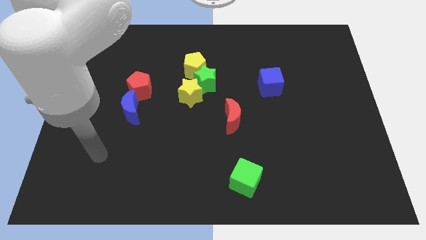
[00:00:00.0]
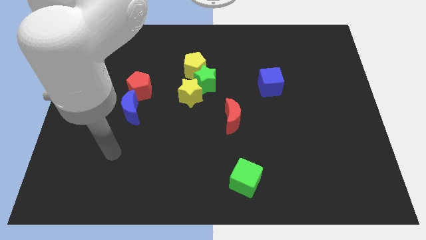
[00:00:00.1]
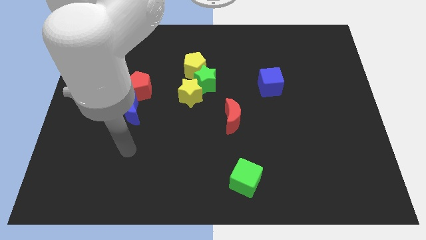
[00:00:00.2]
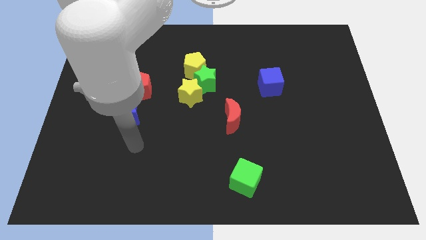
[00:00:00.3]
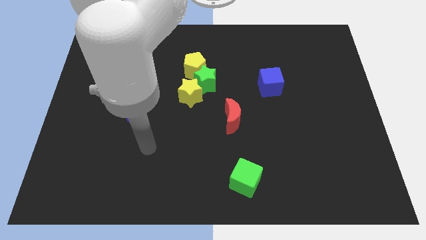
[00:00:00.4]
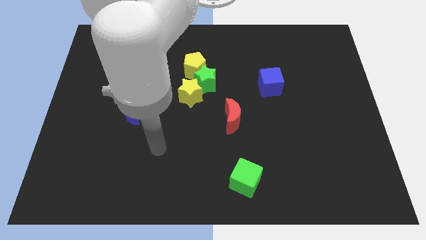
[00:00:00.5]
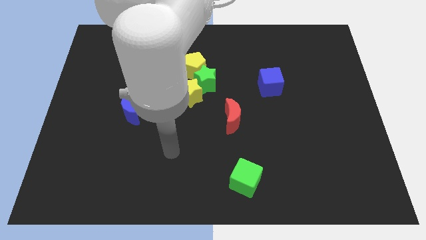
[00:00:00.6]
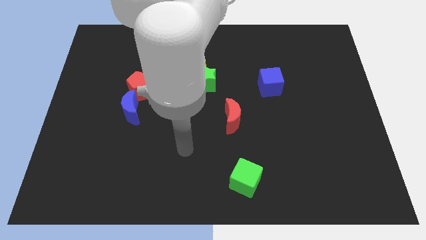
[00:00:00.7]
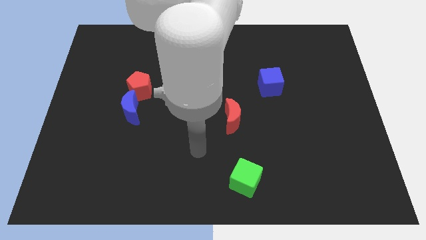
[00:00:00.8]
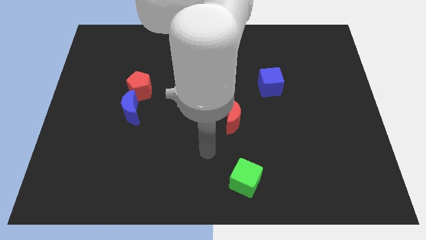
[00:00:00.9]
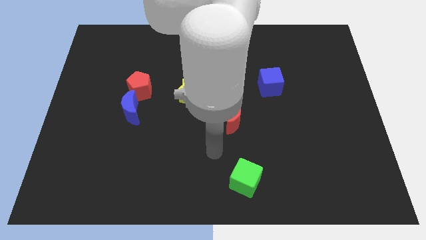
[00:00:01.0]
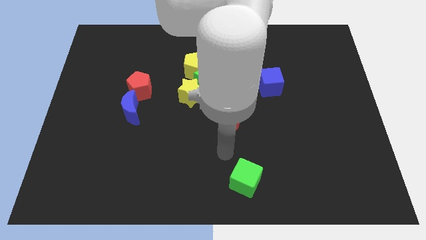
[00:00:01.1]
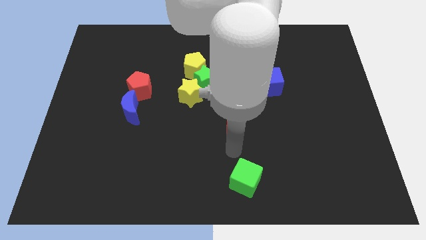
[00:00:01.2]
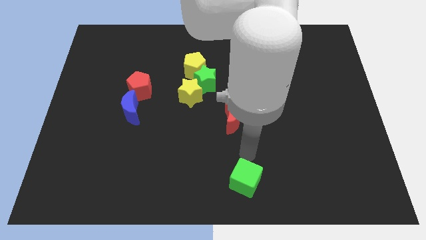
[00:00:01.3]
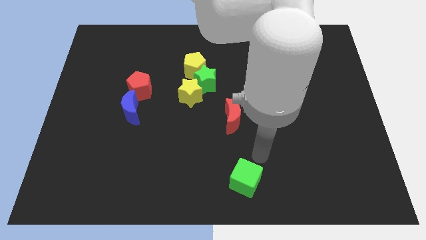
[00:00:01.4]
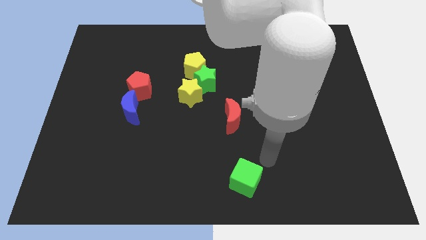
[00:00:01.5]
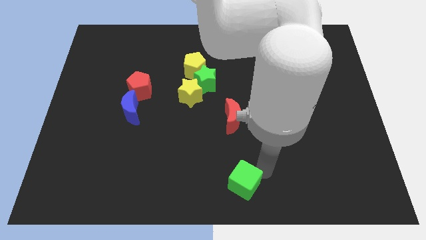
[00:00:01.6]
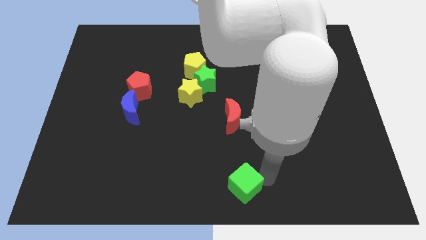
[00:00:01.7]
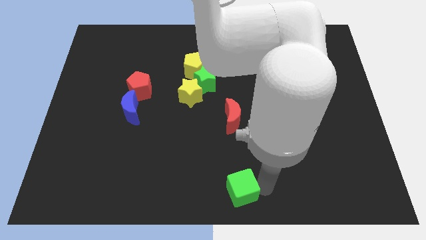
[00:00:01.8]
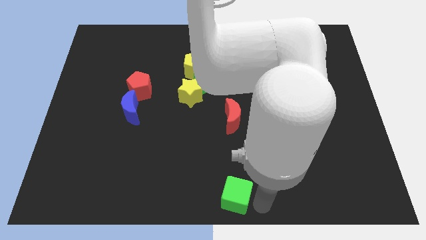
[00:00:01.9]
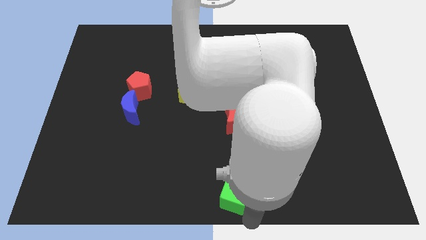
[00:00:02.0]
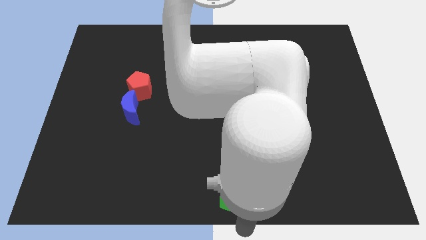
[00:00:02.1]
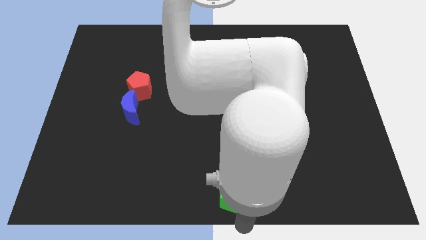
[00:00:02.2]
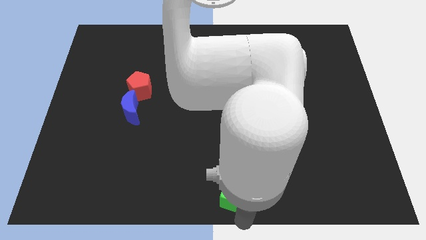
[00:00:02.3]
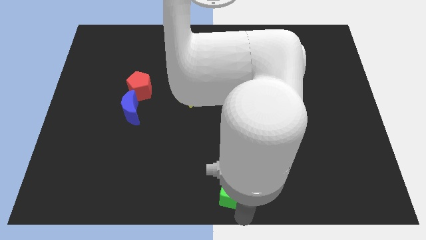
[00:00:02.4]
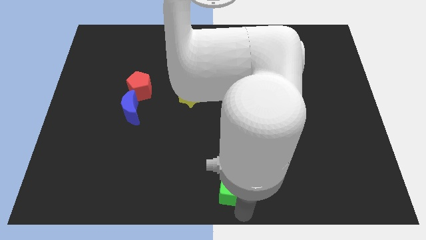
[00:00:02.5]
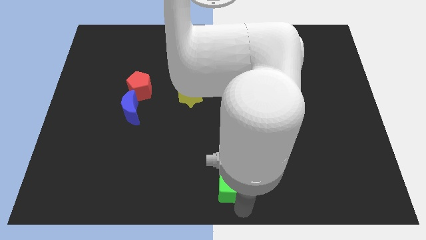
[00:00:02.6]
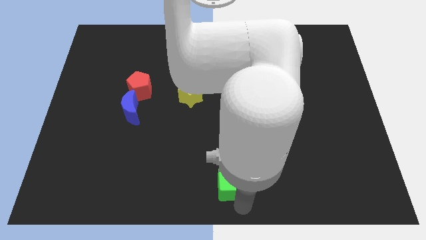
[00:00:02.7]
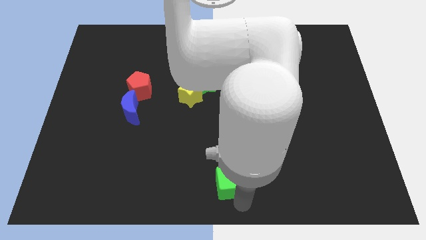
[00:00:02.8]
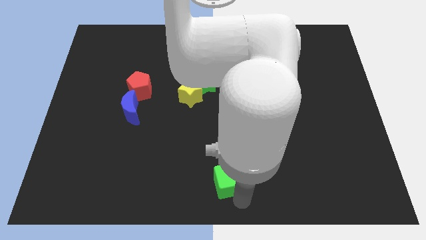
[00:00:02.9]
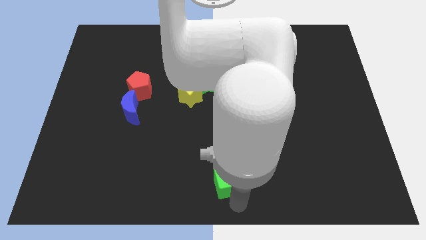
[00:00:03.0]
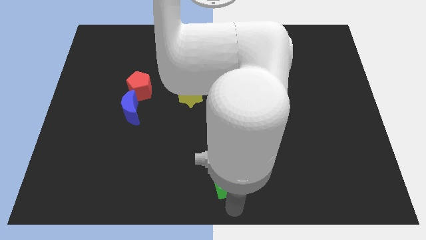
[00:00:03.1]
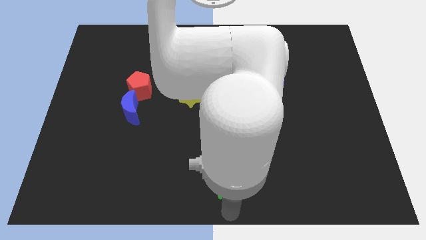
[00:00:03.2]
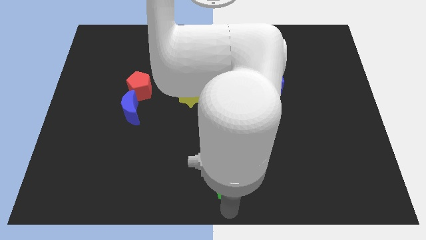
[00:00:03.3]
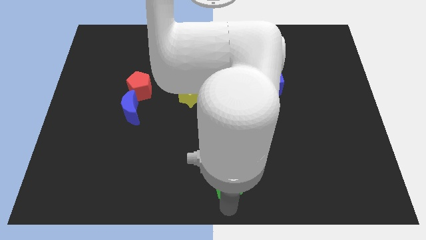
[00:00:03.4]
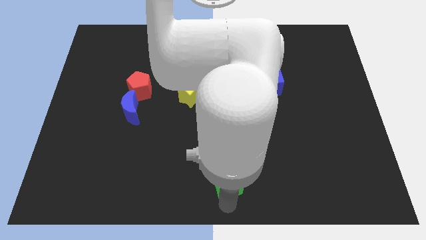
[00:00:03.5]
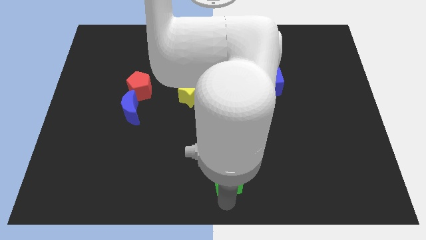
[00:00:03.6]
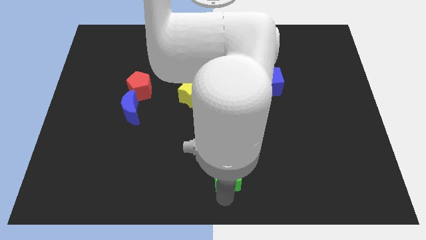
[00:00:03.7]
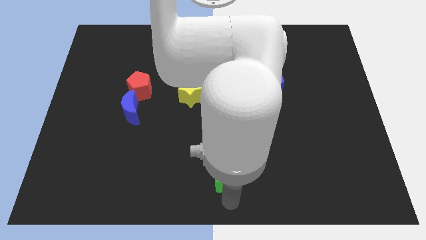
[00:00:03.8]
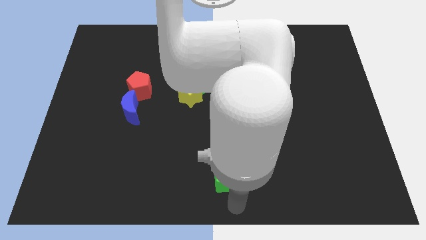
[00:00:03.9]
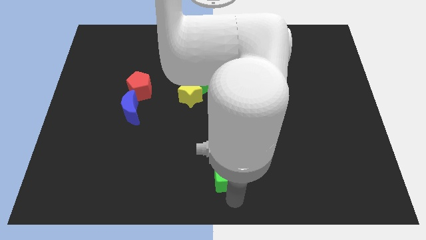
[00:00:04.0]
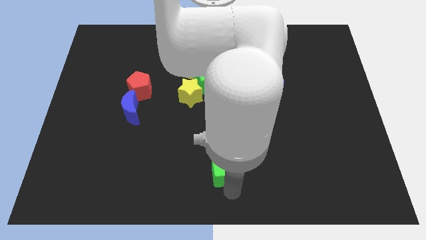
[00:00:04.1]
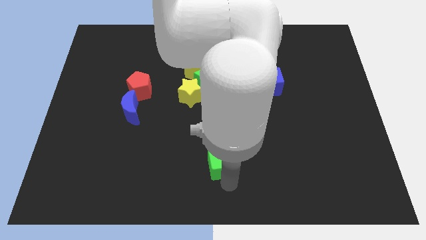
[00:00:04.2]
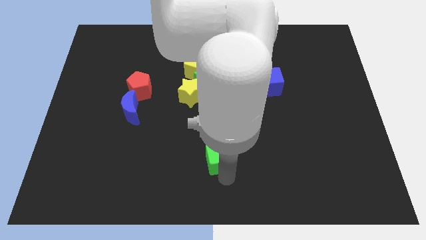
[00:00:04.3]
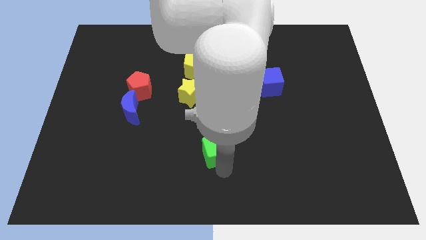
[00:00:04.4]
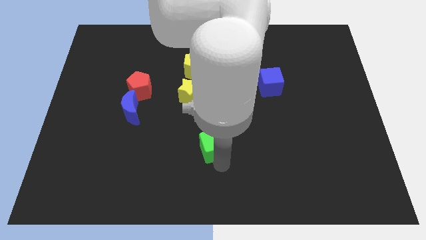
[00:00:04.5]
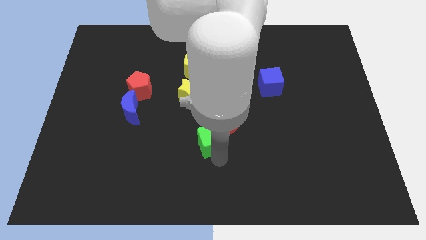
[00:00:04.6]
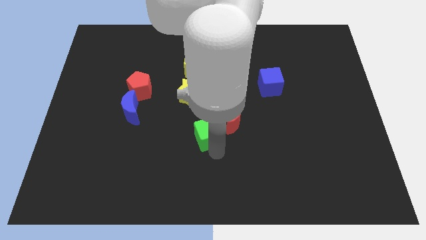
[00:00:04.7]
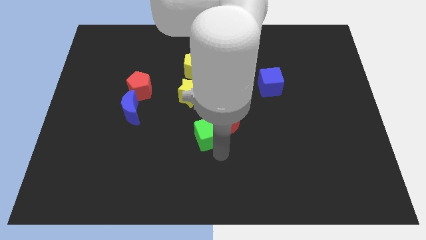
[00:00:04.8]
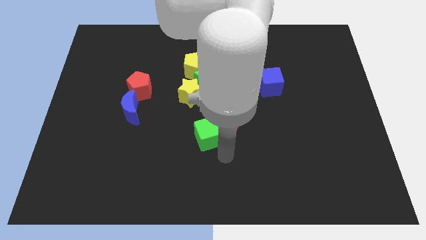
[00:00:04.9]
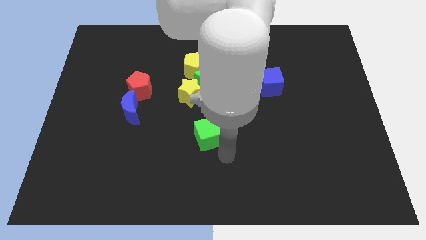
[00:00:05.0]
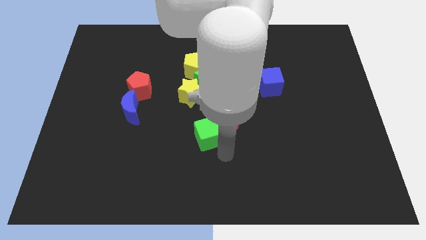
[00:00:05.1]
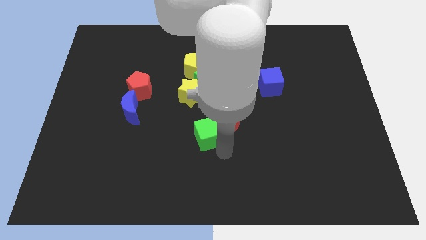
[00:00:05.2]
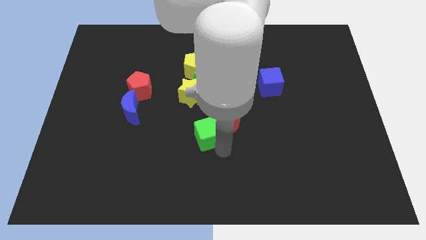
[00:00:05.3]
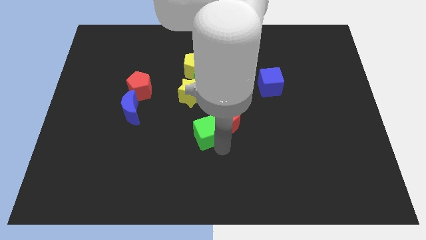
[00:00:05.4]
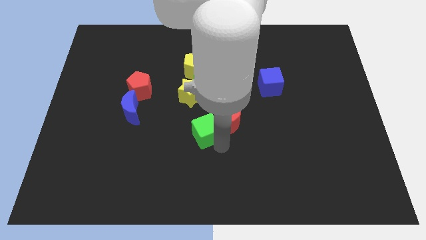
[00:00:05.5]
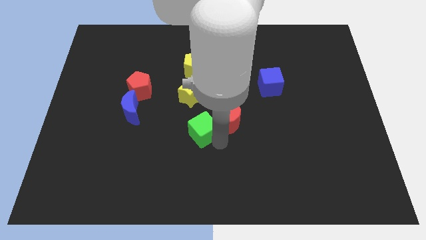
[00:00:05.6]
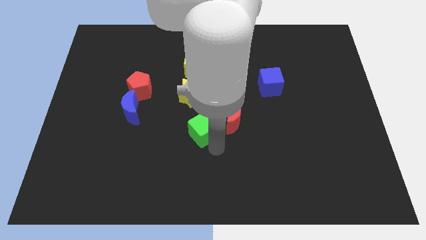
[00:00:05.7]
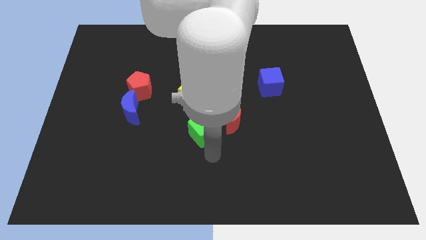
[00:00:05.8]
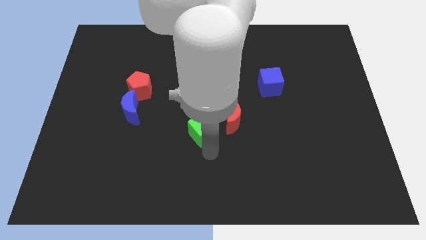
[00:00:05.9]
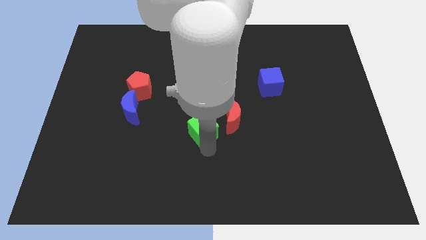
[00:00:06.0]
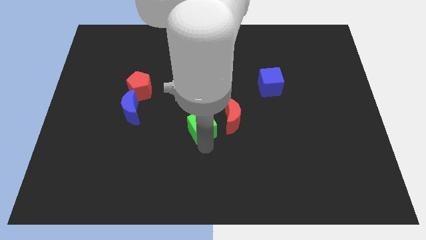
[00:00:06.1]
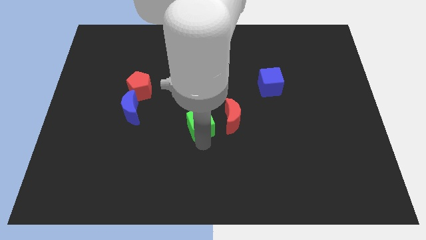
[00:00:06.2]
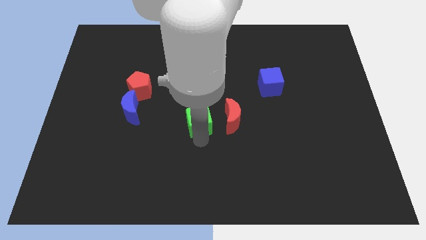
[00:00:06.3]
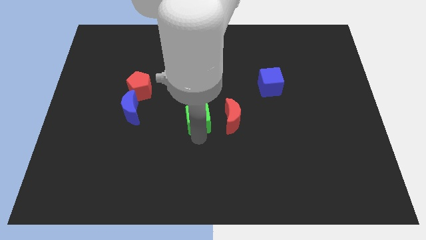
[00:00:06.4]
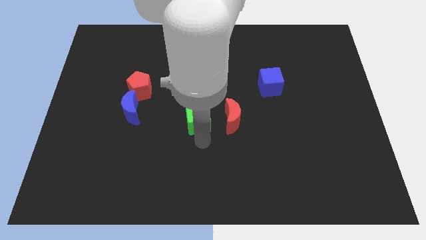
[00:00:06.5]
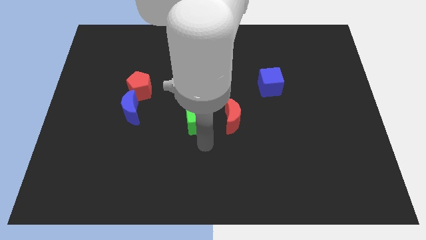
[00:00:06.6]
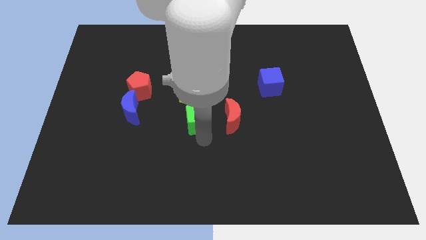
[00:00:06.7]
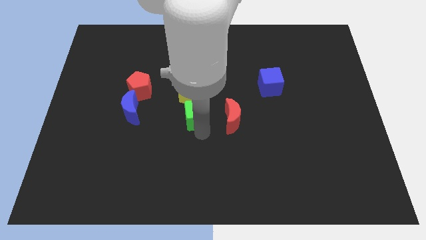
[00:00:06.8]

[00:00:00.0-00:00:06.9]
move the green cube to the bottom of the yellow pentagon
